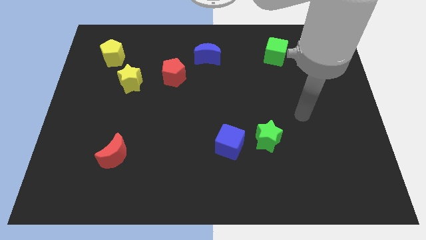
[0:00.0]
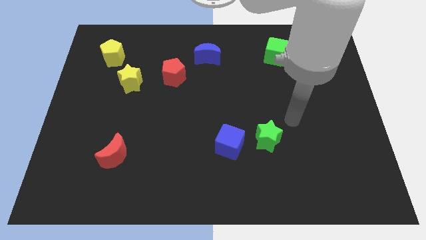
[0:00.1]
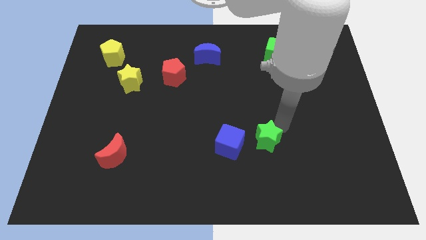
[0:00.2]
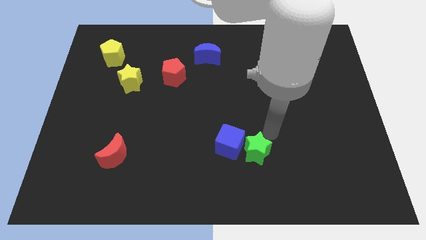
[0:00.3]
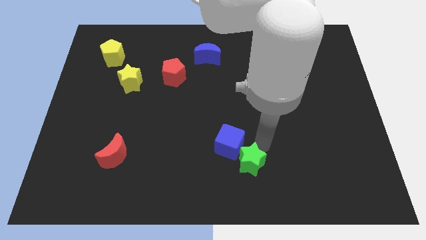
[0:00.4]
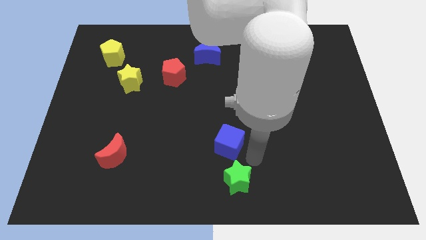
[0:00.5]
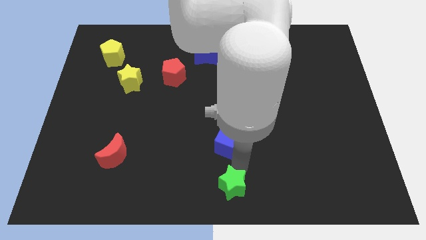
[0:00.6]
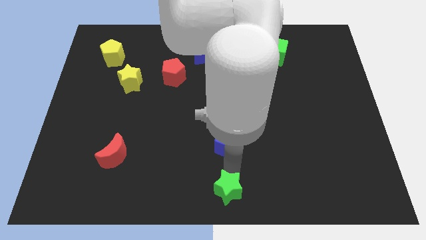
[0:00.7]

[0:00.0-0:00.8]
move the blue cube away from the green star

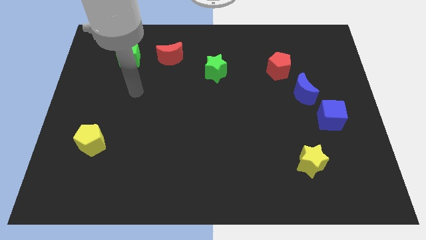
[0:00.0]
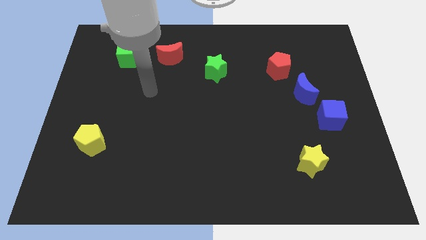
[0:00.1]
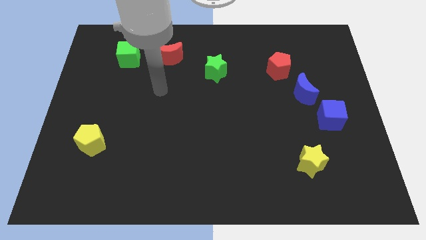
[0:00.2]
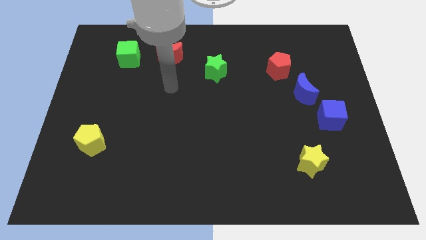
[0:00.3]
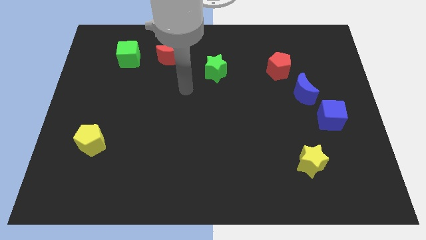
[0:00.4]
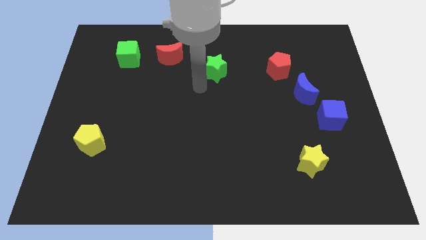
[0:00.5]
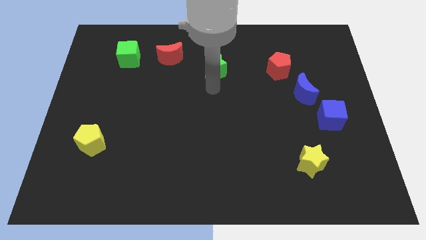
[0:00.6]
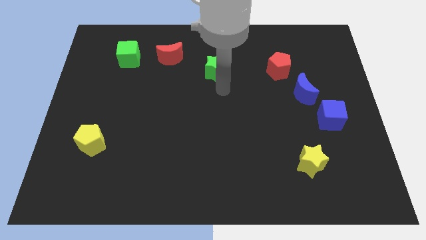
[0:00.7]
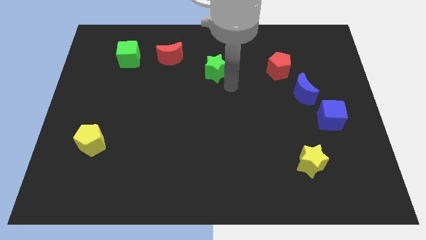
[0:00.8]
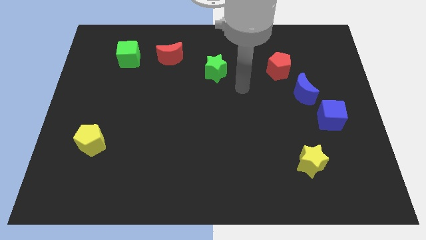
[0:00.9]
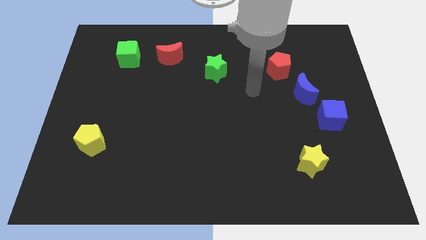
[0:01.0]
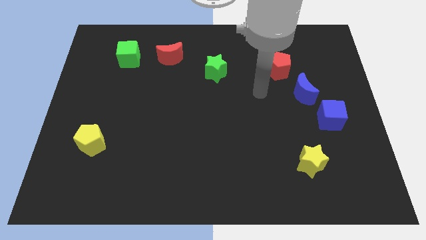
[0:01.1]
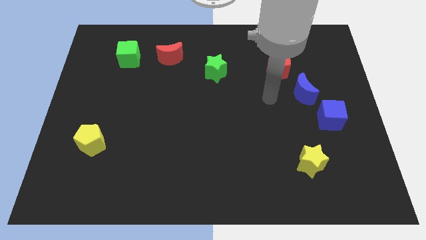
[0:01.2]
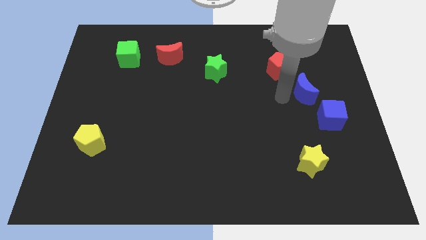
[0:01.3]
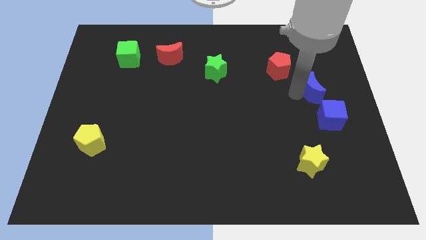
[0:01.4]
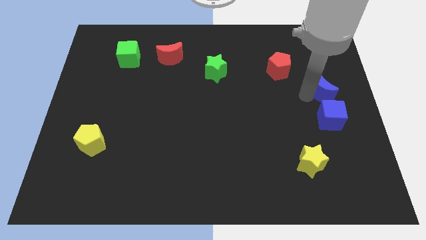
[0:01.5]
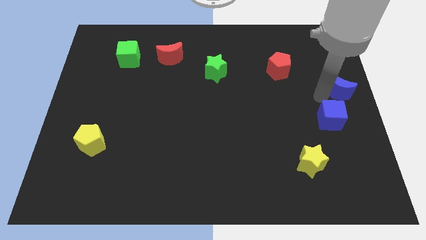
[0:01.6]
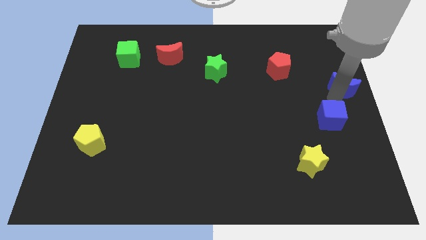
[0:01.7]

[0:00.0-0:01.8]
move the blue cube away from the blue moon

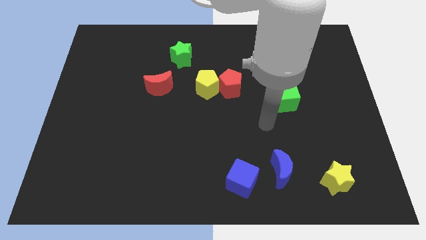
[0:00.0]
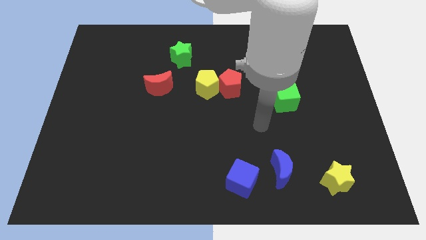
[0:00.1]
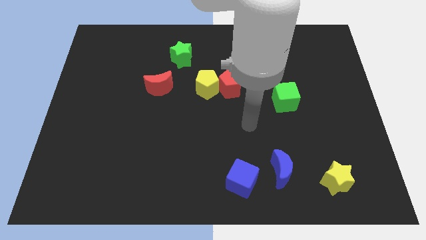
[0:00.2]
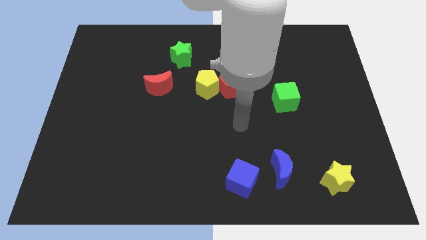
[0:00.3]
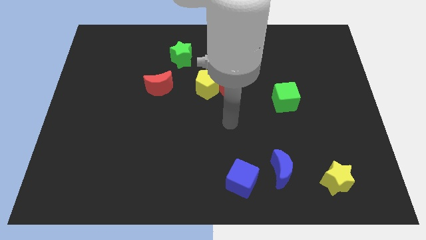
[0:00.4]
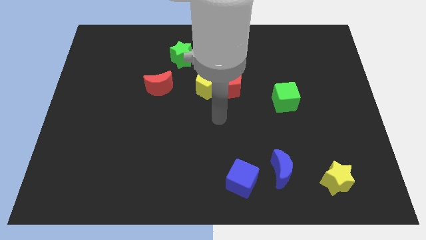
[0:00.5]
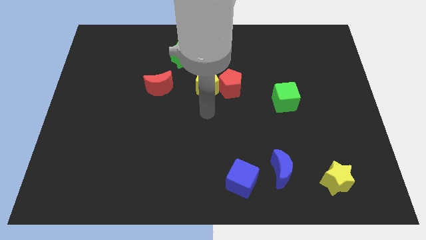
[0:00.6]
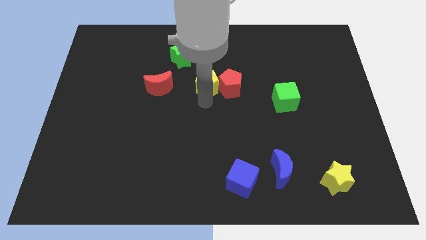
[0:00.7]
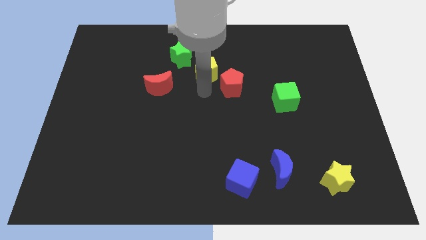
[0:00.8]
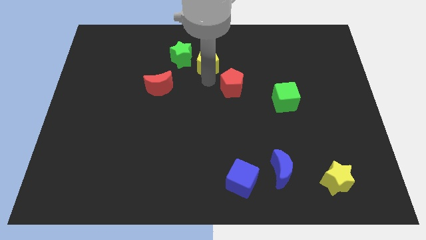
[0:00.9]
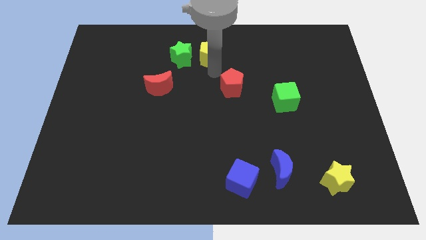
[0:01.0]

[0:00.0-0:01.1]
move the red pentagon away from the yellow pentagon

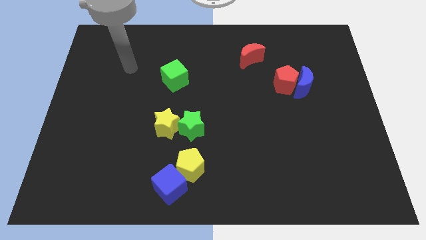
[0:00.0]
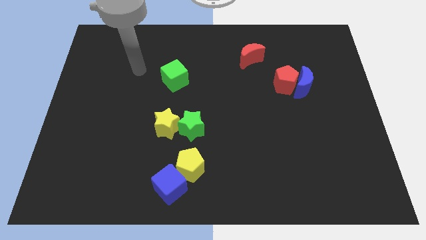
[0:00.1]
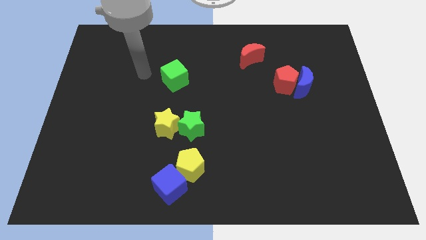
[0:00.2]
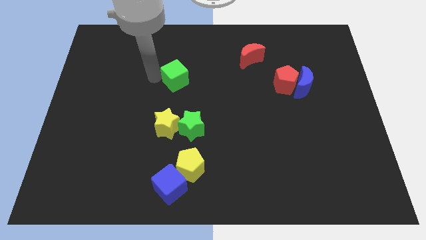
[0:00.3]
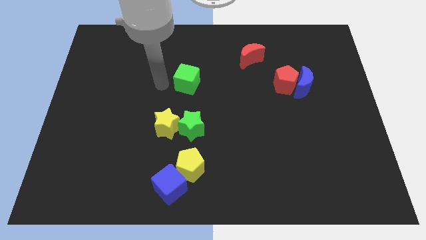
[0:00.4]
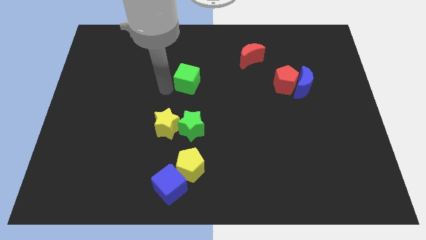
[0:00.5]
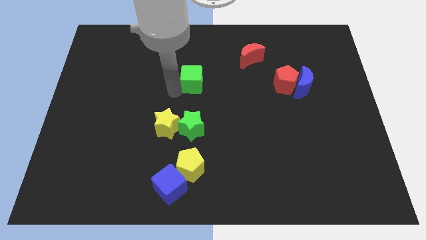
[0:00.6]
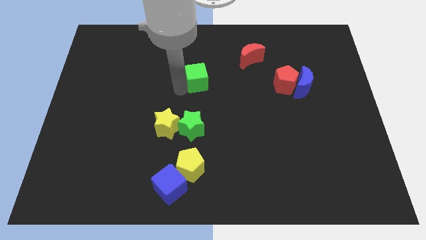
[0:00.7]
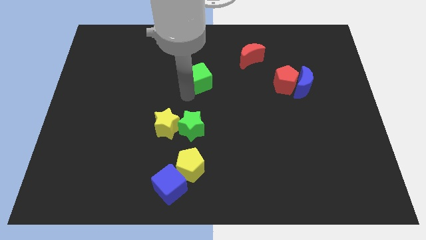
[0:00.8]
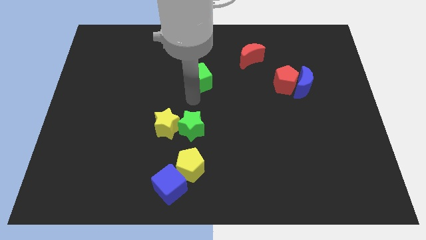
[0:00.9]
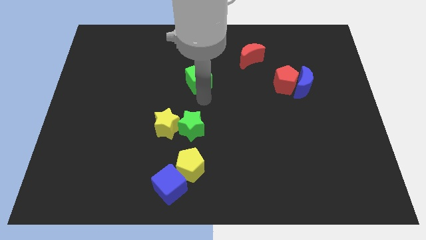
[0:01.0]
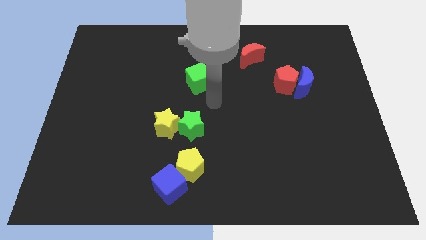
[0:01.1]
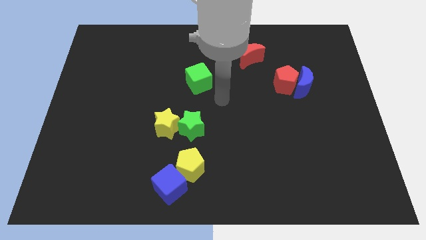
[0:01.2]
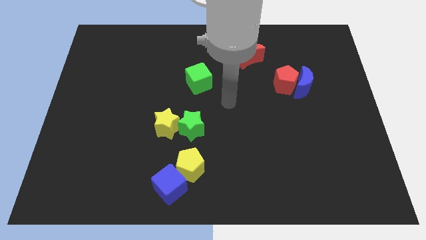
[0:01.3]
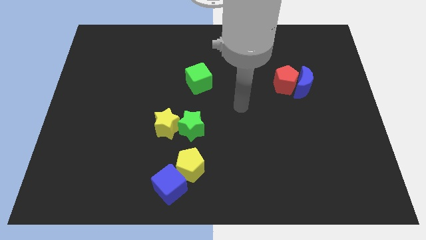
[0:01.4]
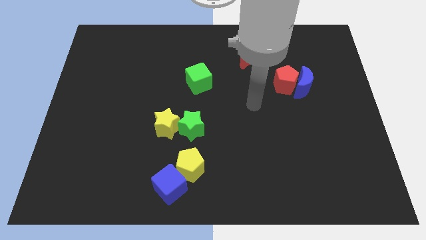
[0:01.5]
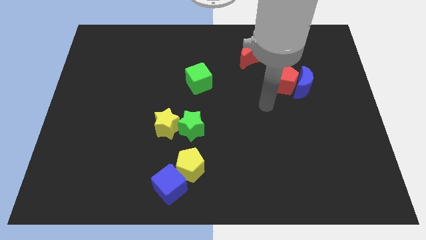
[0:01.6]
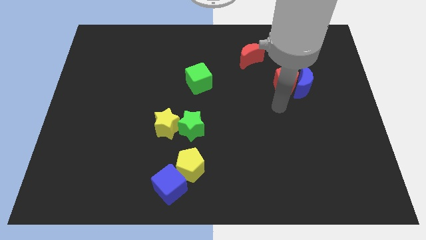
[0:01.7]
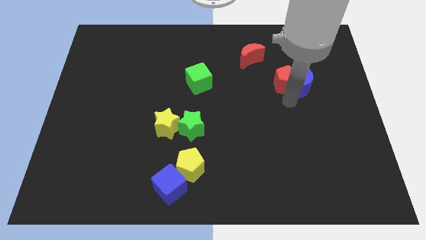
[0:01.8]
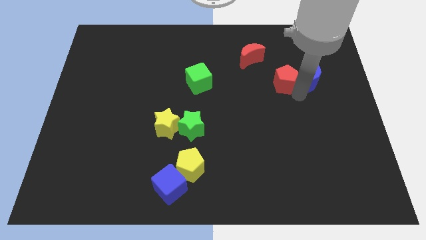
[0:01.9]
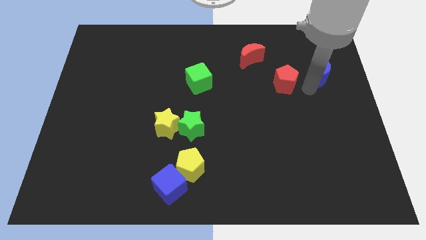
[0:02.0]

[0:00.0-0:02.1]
separate the red pentagon from the blue moon

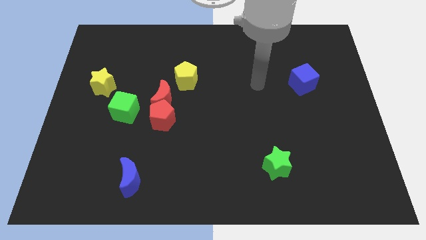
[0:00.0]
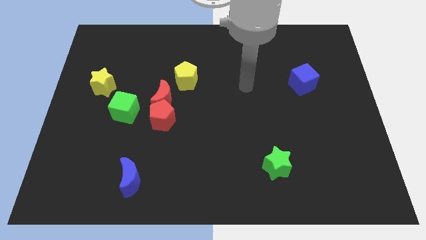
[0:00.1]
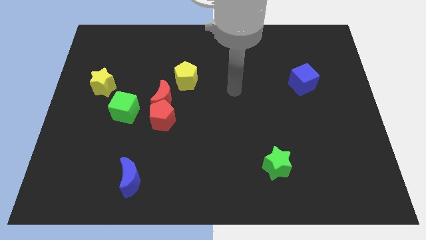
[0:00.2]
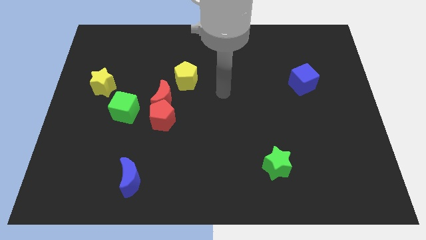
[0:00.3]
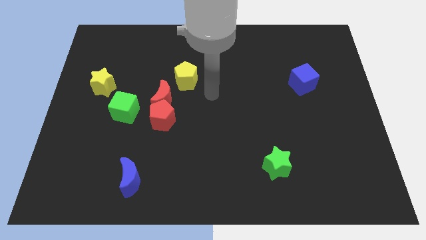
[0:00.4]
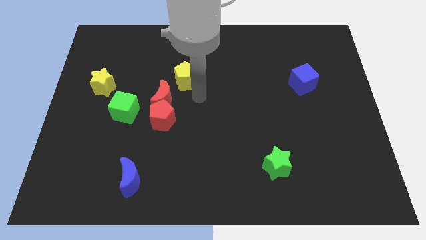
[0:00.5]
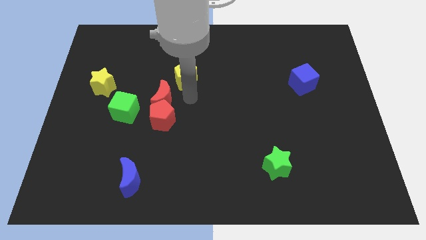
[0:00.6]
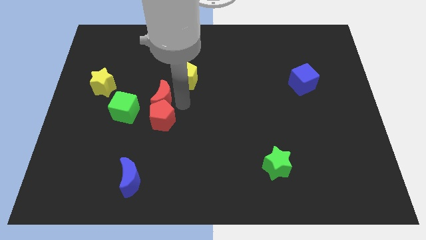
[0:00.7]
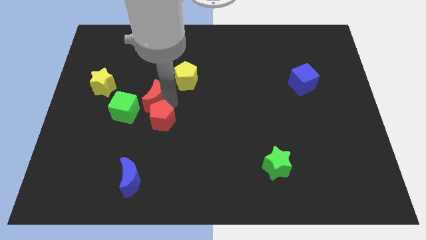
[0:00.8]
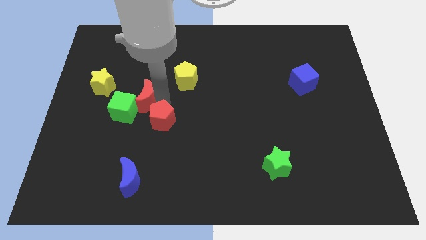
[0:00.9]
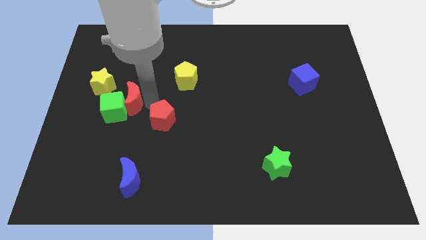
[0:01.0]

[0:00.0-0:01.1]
move the red pentagon away from the red moon and green cube

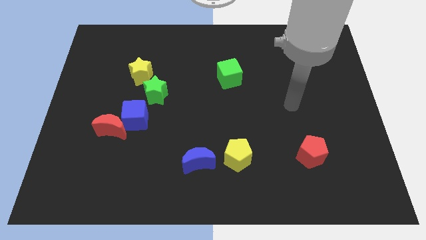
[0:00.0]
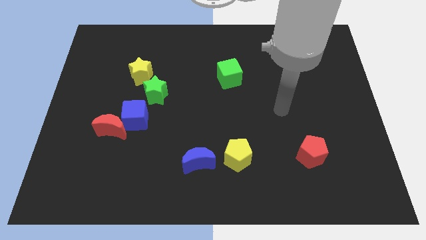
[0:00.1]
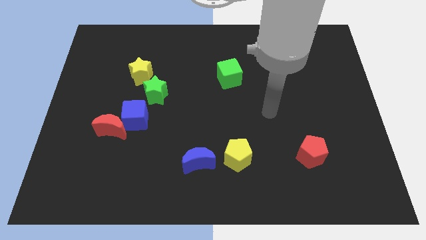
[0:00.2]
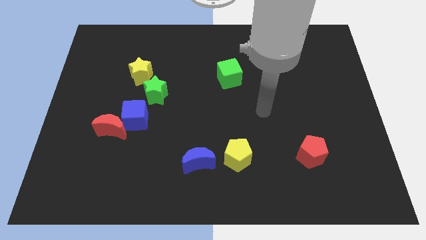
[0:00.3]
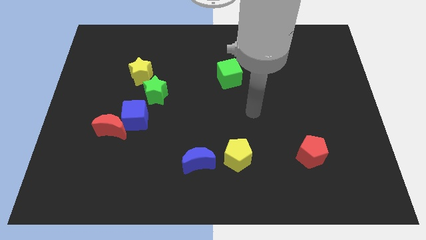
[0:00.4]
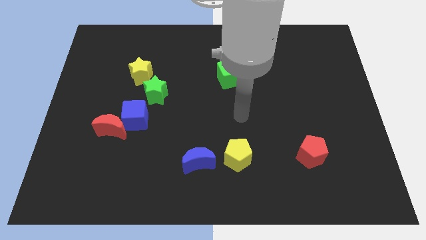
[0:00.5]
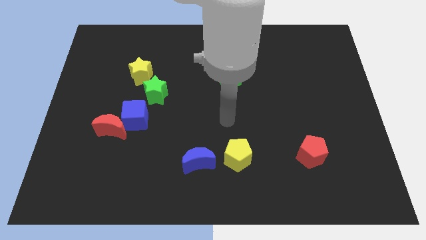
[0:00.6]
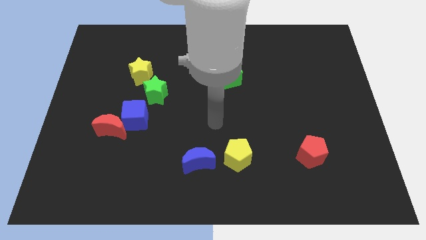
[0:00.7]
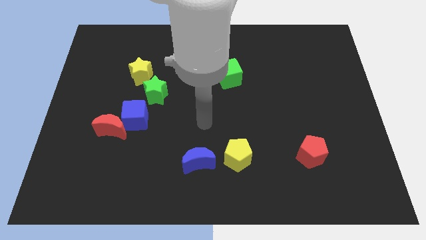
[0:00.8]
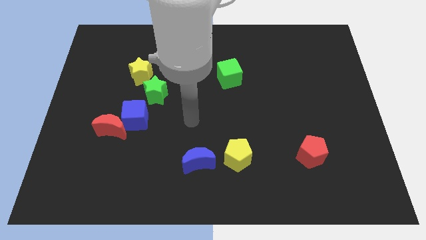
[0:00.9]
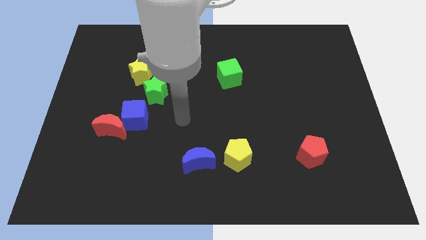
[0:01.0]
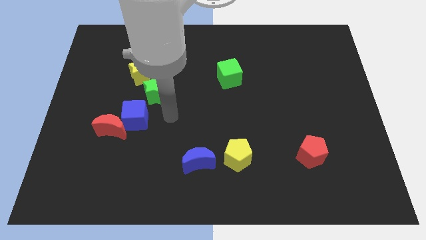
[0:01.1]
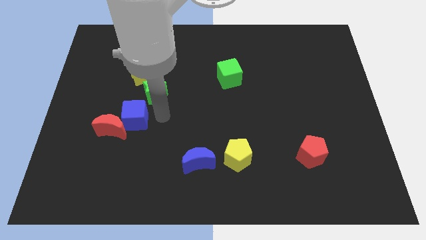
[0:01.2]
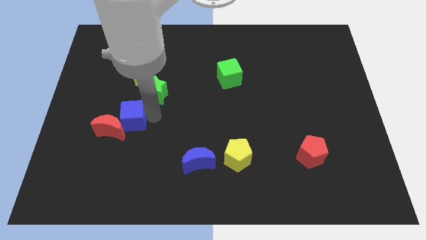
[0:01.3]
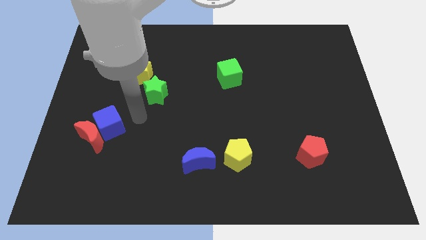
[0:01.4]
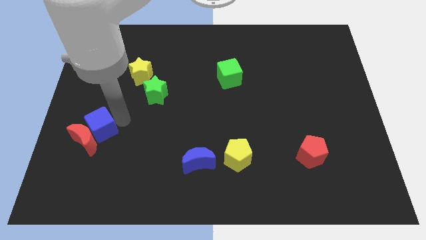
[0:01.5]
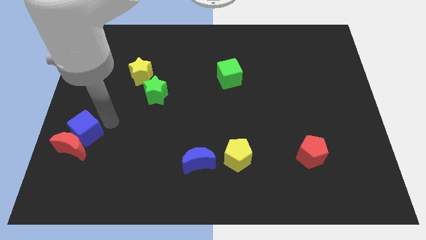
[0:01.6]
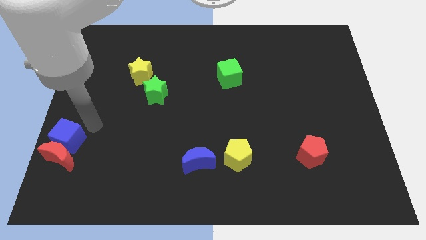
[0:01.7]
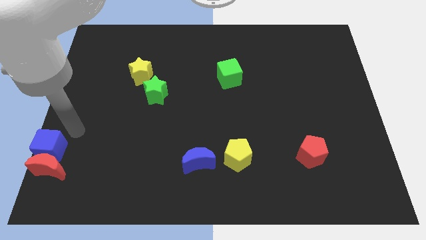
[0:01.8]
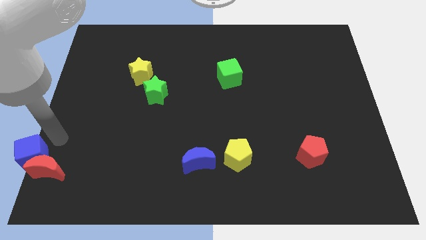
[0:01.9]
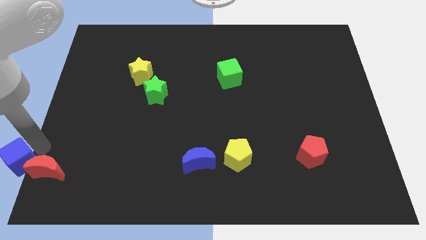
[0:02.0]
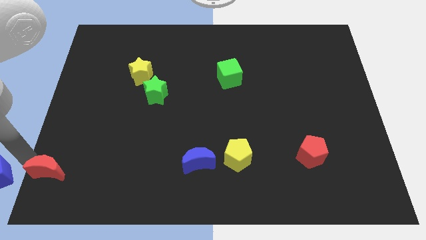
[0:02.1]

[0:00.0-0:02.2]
separate the red moon from the blue cube

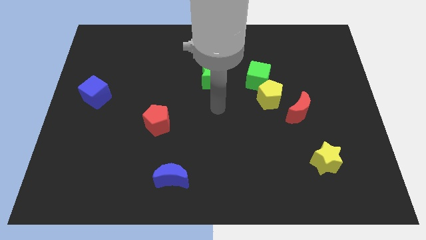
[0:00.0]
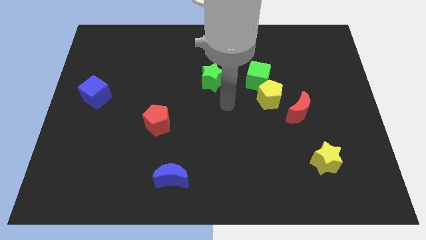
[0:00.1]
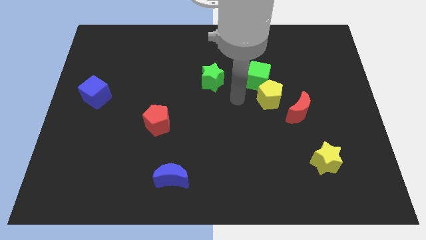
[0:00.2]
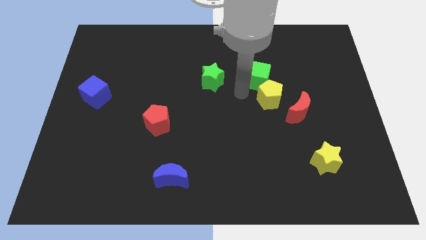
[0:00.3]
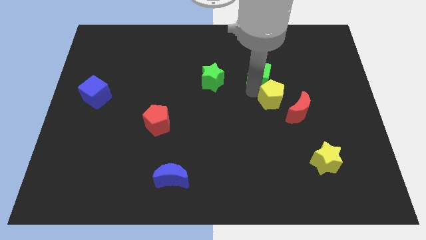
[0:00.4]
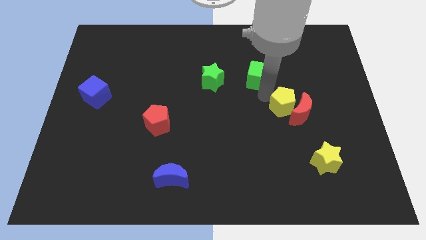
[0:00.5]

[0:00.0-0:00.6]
pull the green cube apart from the yellow pentagon
